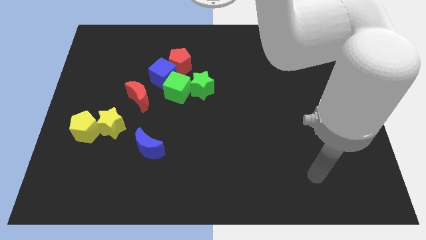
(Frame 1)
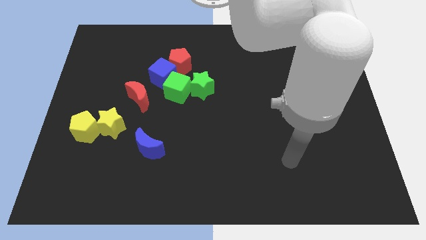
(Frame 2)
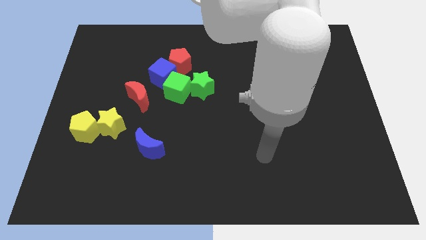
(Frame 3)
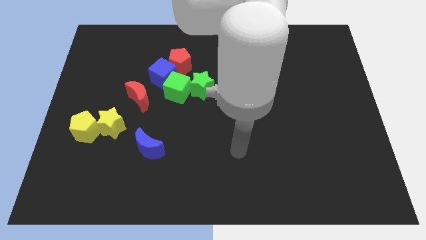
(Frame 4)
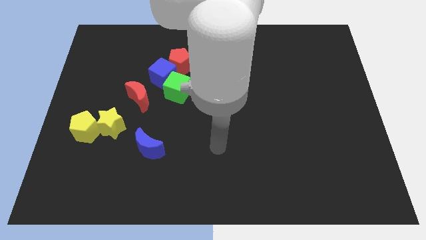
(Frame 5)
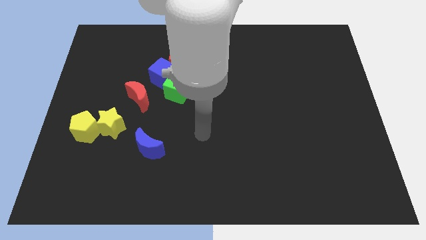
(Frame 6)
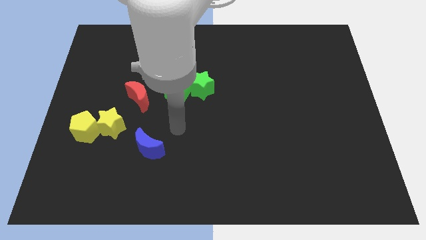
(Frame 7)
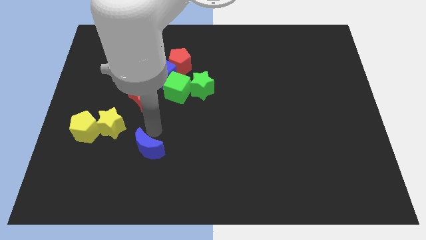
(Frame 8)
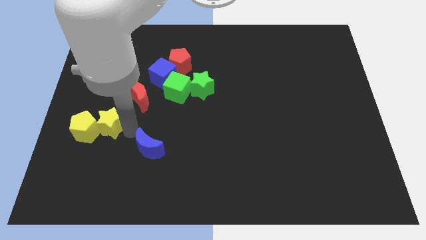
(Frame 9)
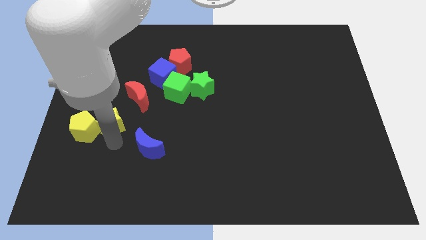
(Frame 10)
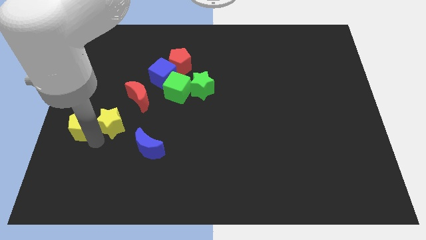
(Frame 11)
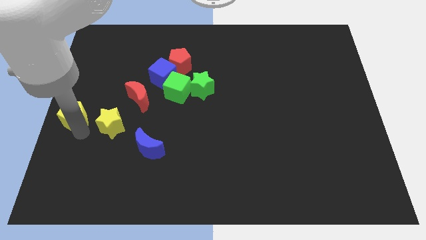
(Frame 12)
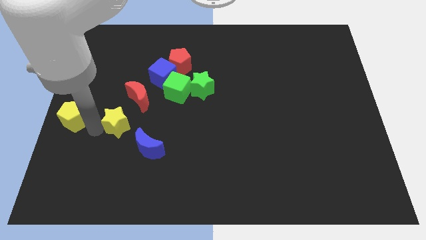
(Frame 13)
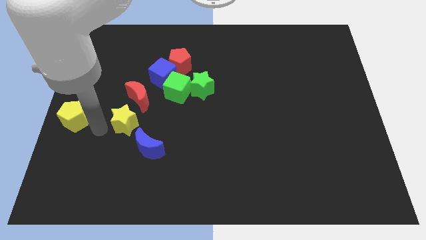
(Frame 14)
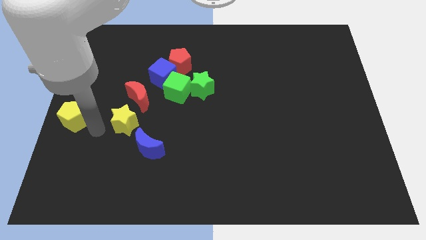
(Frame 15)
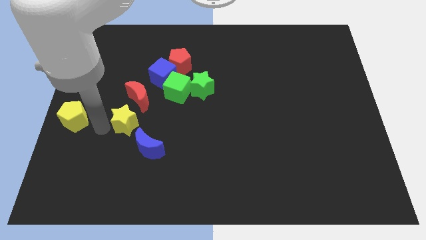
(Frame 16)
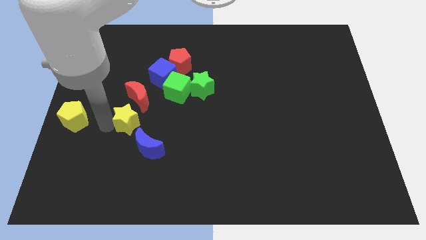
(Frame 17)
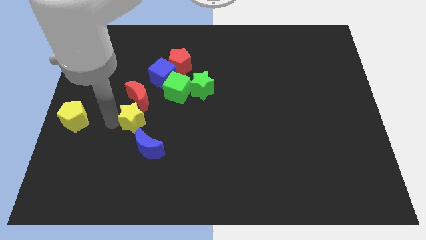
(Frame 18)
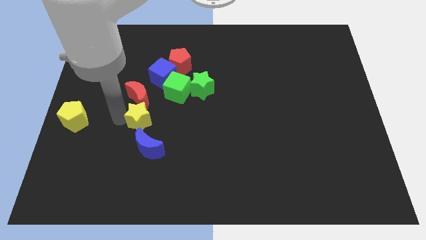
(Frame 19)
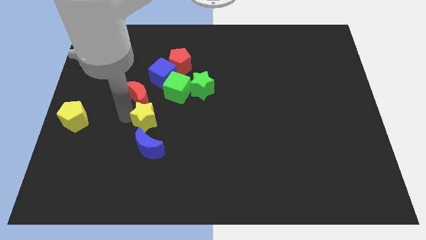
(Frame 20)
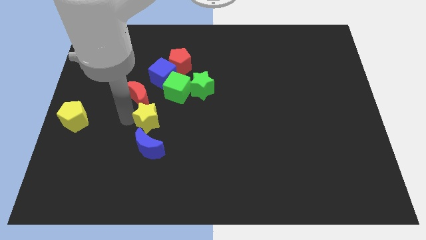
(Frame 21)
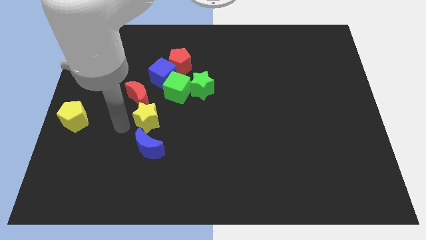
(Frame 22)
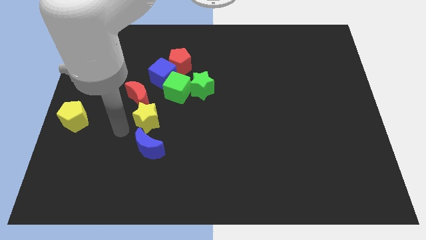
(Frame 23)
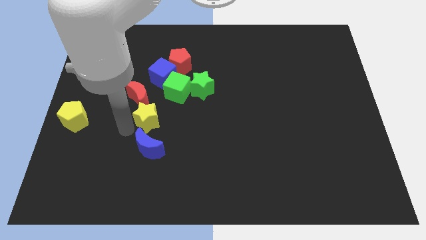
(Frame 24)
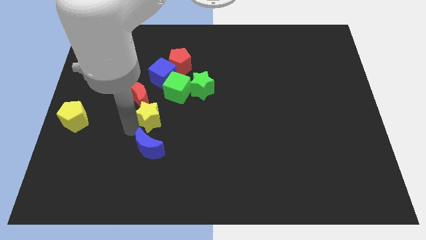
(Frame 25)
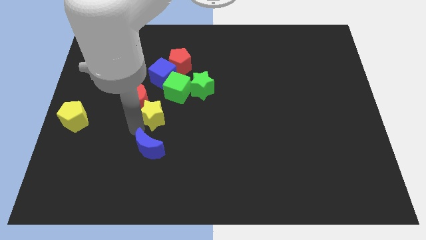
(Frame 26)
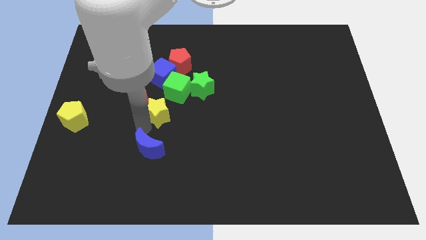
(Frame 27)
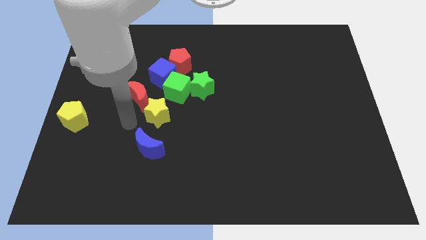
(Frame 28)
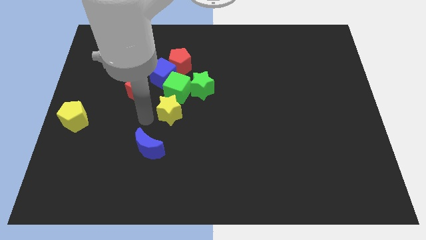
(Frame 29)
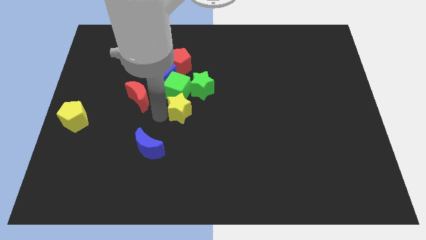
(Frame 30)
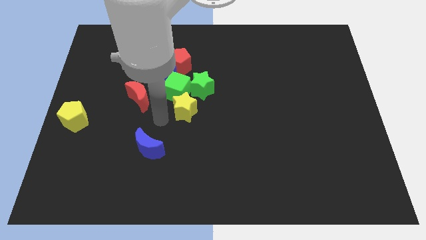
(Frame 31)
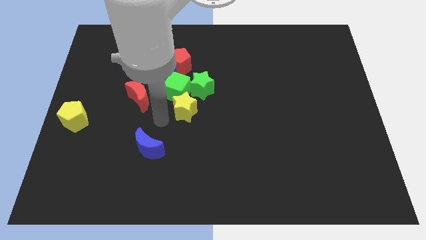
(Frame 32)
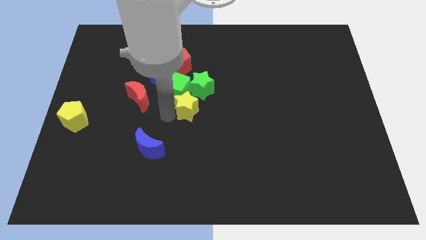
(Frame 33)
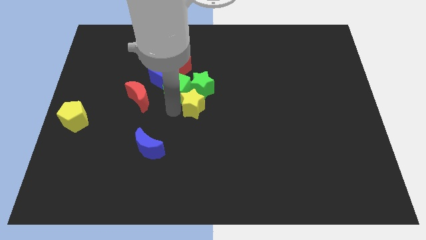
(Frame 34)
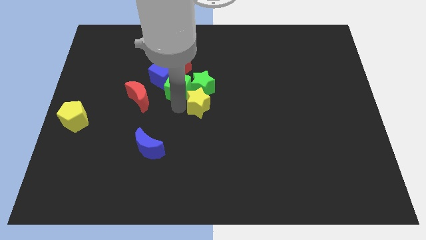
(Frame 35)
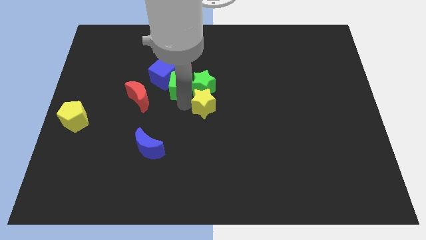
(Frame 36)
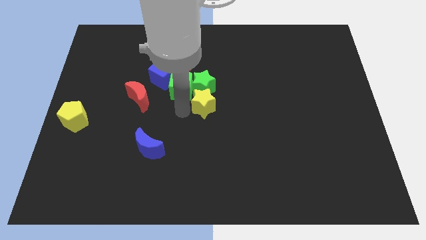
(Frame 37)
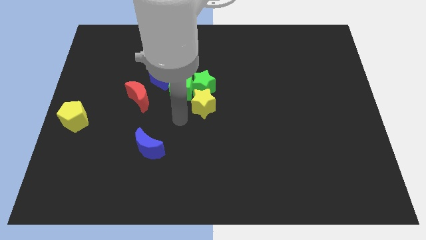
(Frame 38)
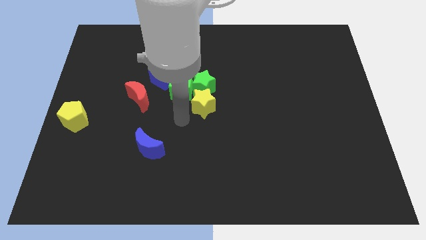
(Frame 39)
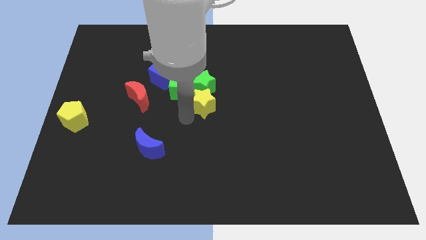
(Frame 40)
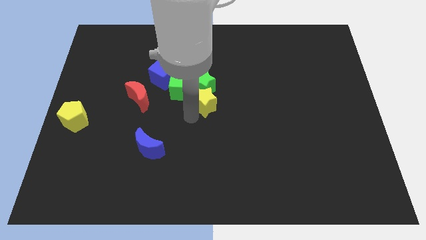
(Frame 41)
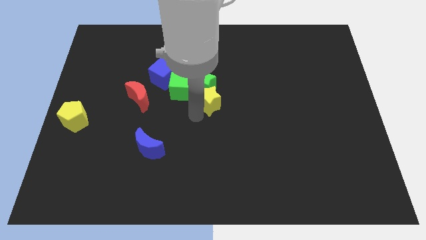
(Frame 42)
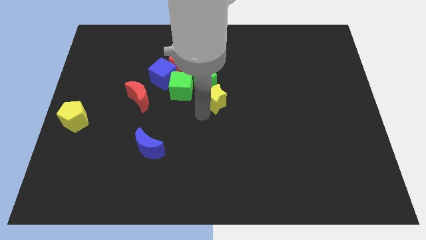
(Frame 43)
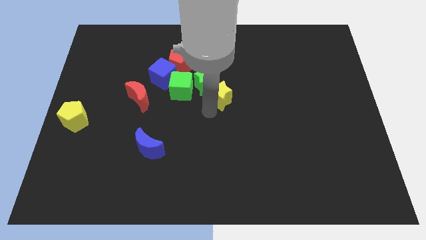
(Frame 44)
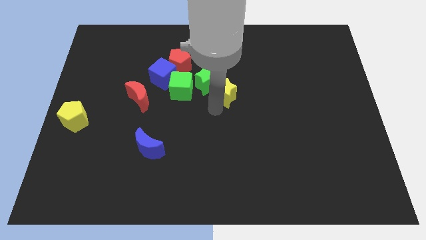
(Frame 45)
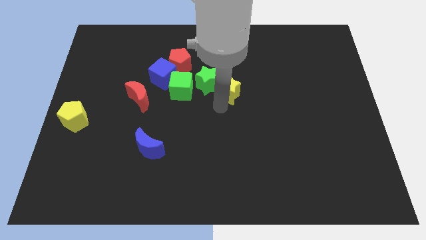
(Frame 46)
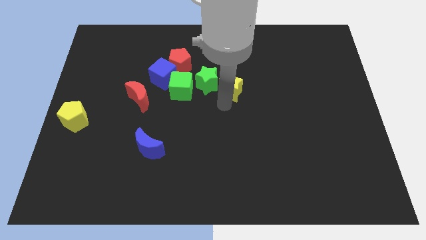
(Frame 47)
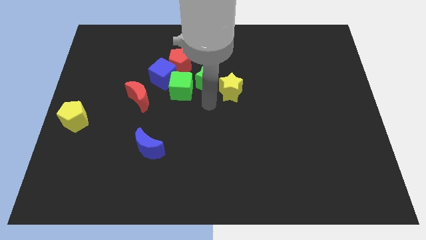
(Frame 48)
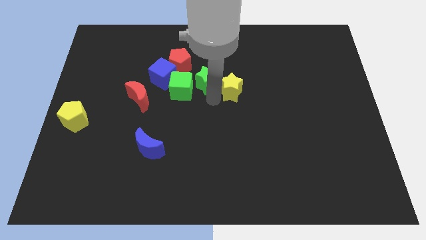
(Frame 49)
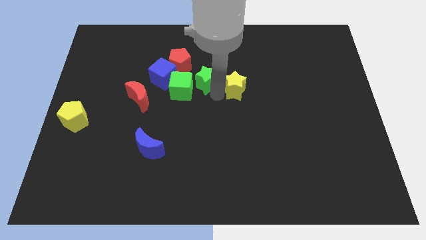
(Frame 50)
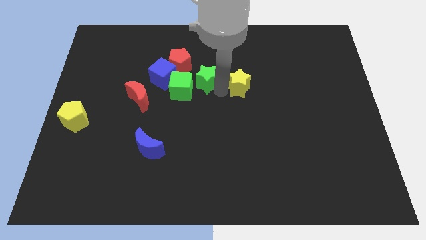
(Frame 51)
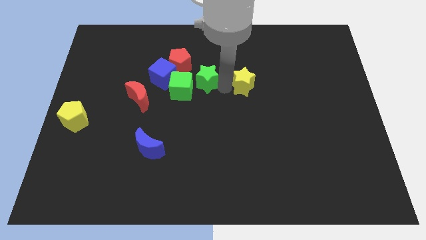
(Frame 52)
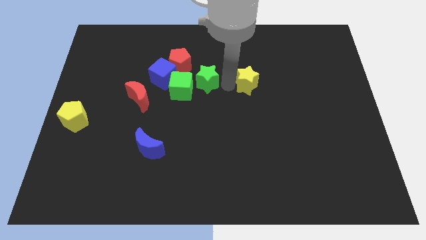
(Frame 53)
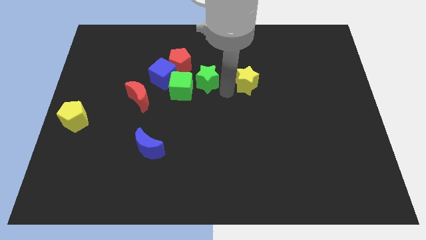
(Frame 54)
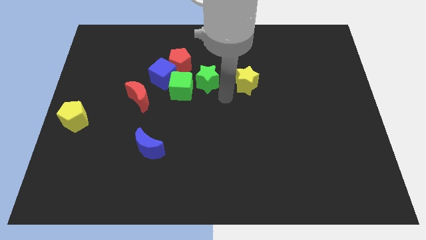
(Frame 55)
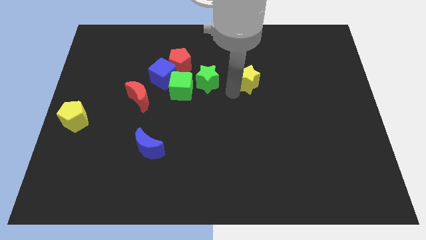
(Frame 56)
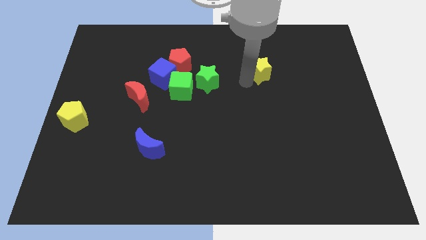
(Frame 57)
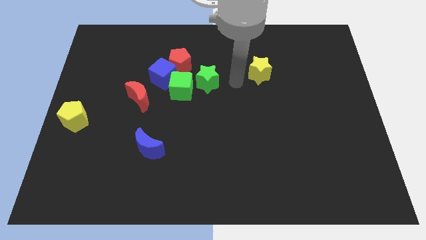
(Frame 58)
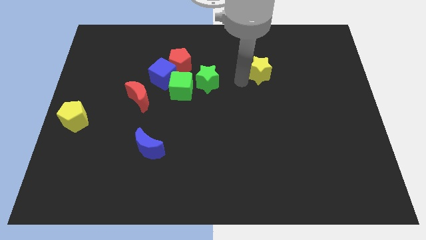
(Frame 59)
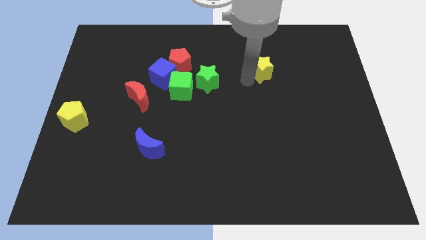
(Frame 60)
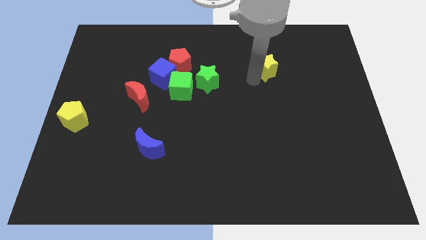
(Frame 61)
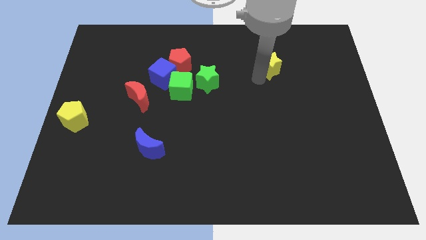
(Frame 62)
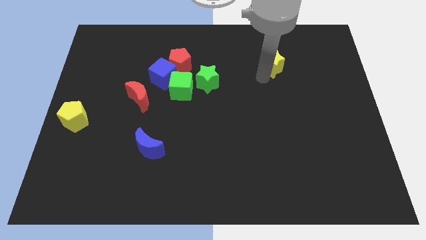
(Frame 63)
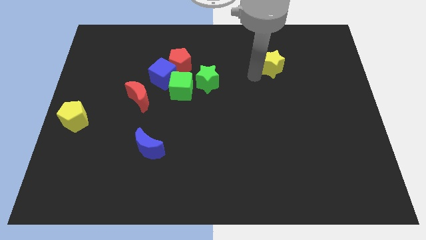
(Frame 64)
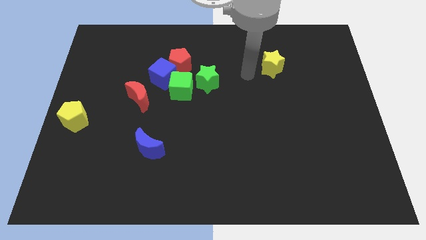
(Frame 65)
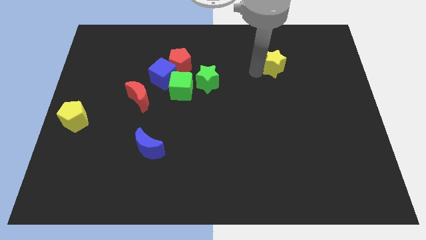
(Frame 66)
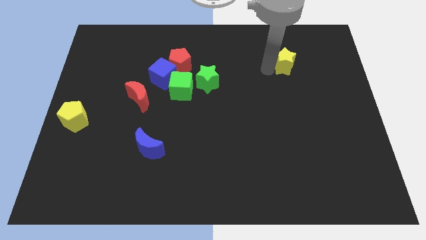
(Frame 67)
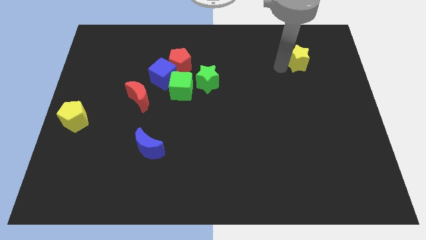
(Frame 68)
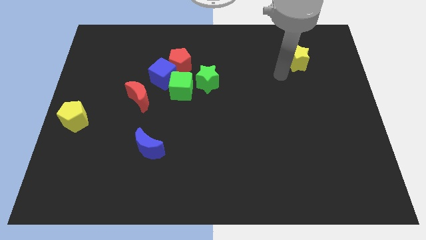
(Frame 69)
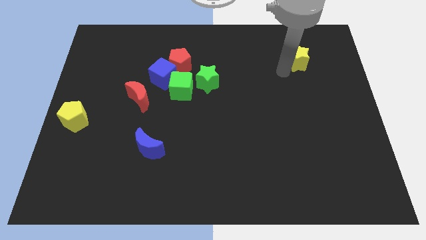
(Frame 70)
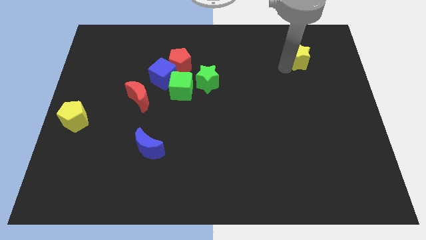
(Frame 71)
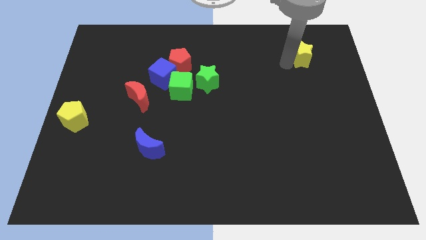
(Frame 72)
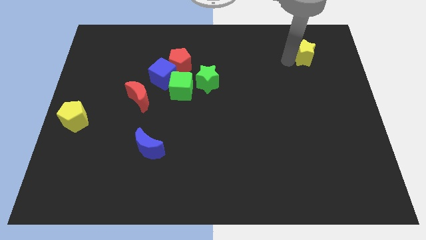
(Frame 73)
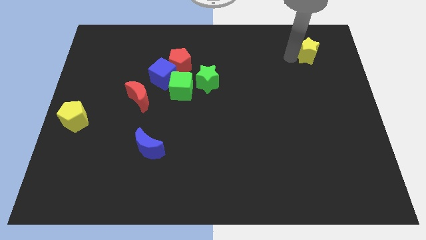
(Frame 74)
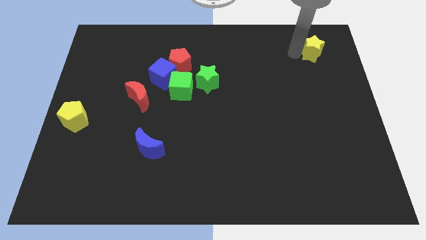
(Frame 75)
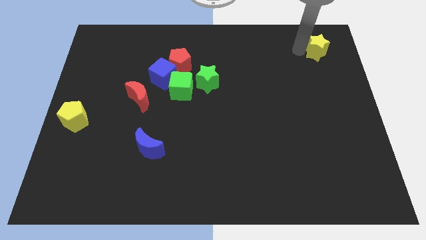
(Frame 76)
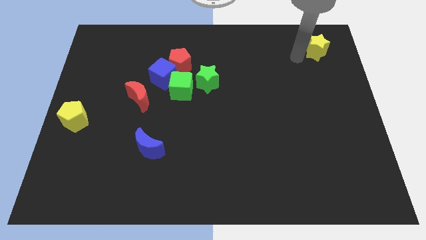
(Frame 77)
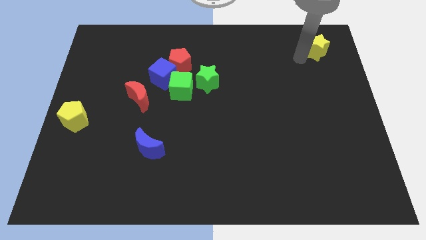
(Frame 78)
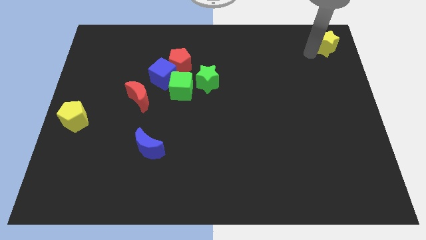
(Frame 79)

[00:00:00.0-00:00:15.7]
slide the yellow star to the top right
